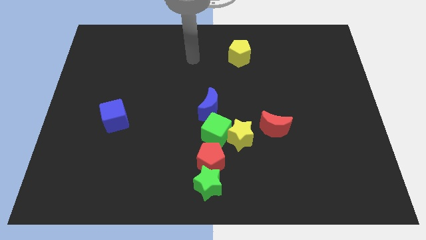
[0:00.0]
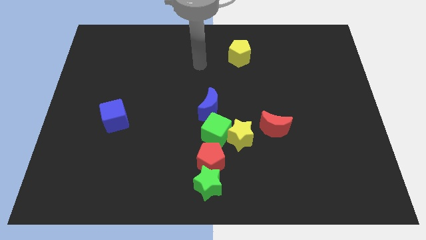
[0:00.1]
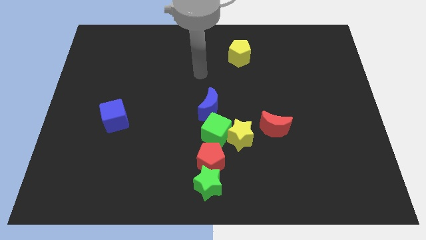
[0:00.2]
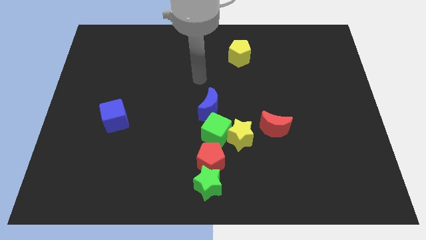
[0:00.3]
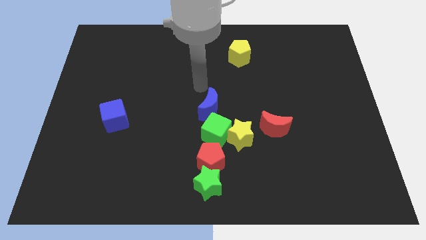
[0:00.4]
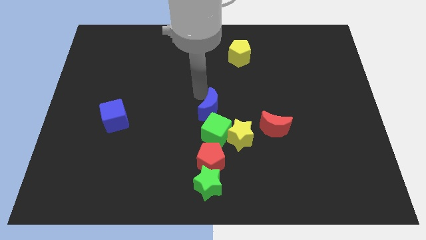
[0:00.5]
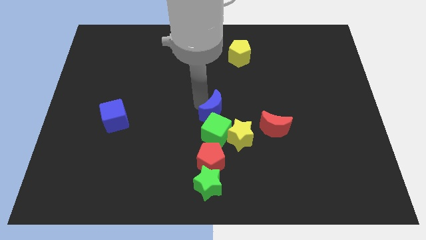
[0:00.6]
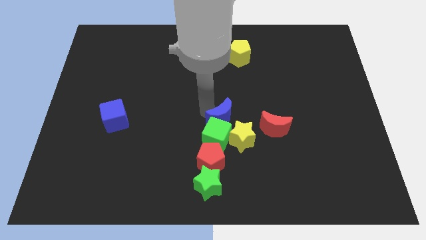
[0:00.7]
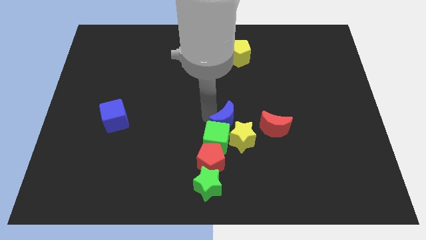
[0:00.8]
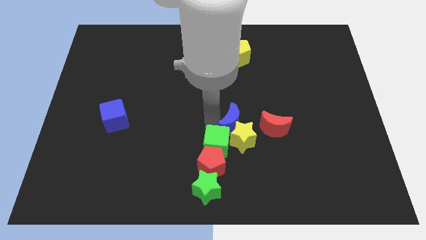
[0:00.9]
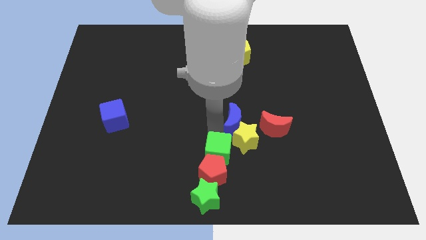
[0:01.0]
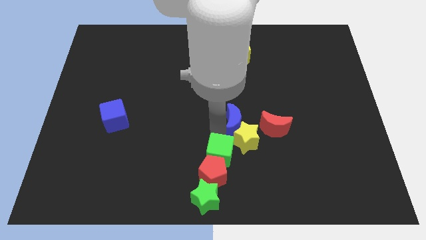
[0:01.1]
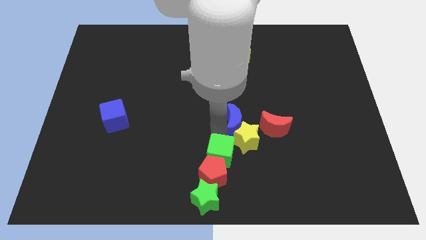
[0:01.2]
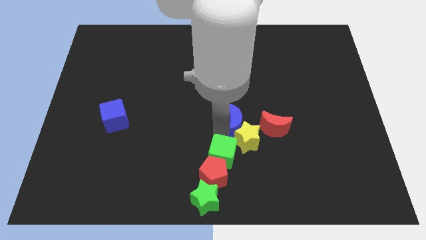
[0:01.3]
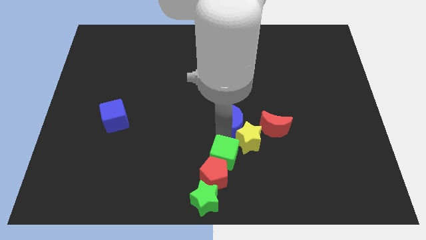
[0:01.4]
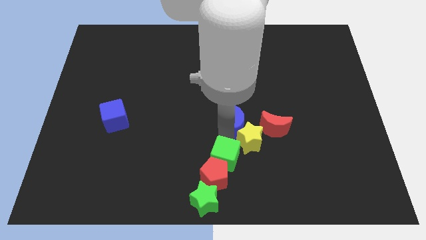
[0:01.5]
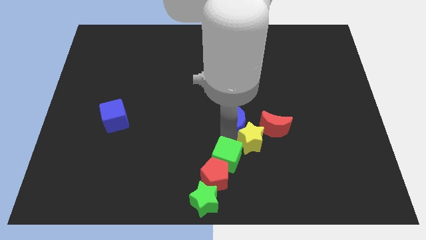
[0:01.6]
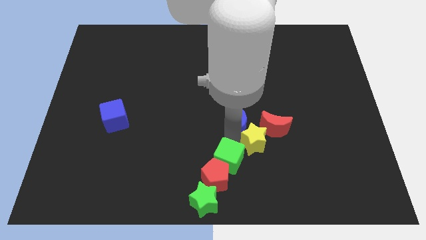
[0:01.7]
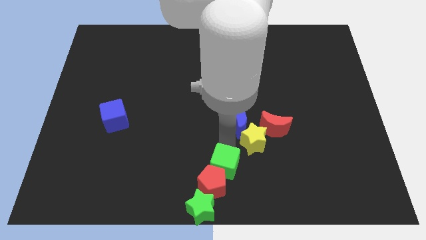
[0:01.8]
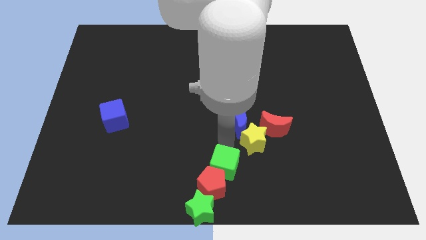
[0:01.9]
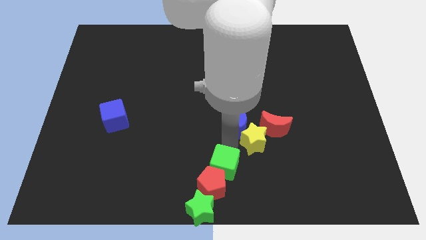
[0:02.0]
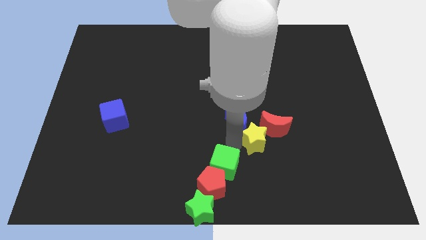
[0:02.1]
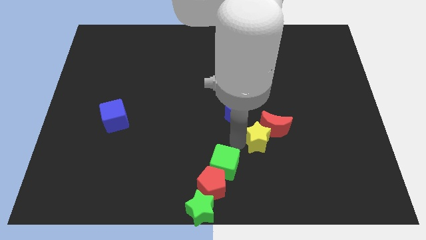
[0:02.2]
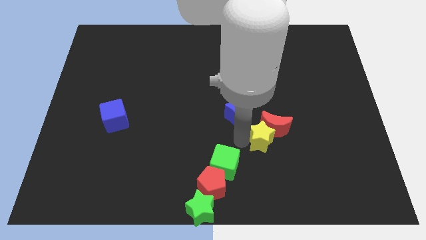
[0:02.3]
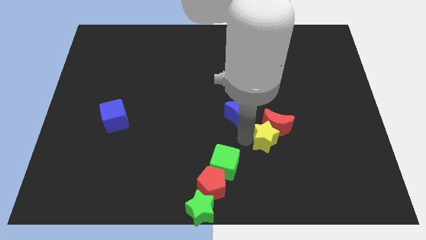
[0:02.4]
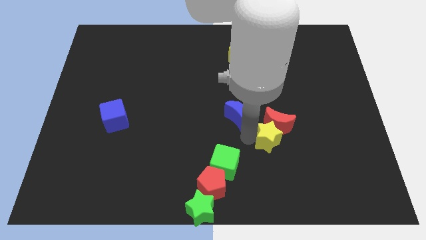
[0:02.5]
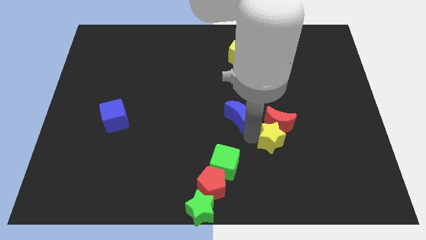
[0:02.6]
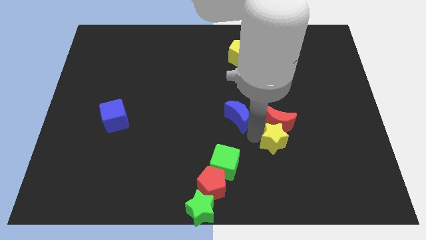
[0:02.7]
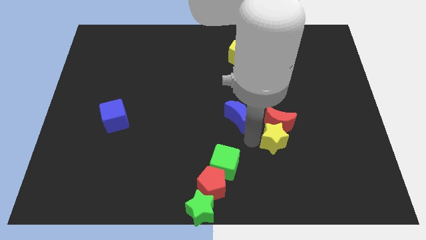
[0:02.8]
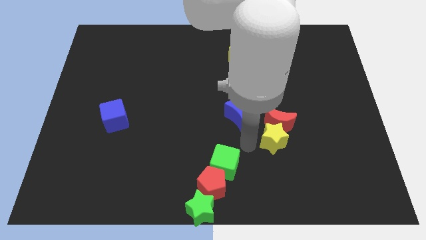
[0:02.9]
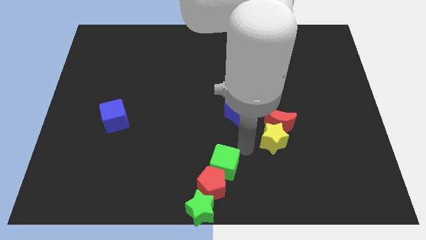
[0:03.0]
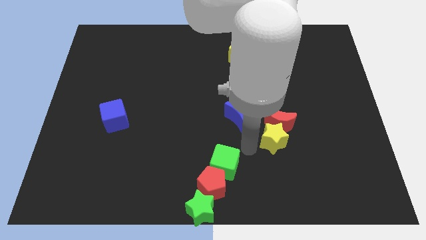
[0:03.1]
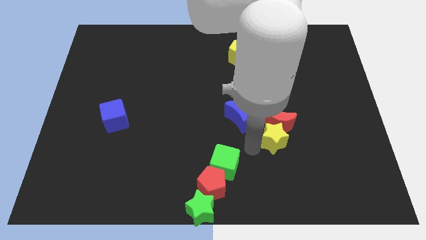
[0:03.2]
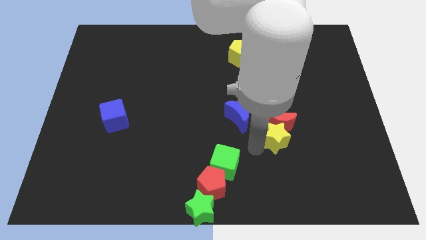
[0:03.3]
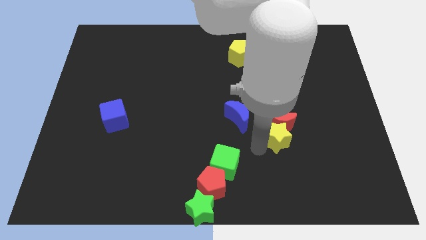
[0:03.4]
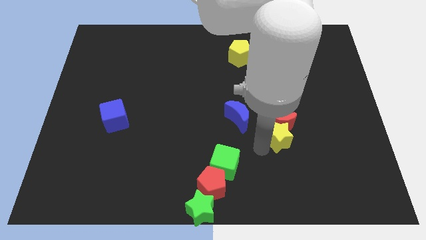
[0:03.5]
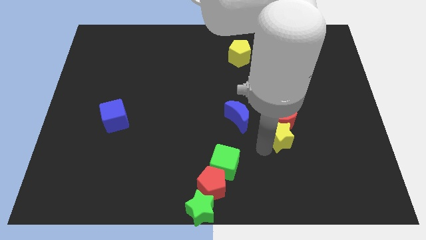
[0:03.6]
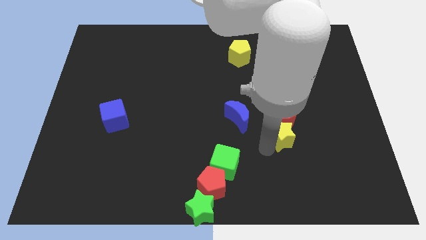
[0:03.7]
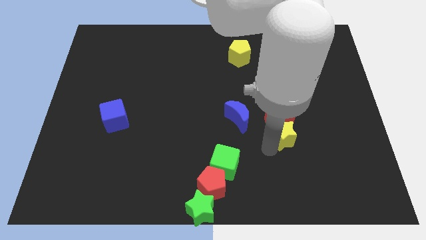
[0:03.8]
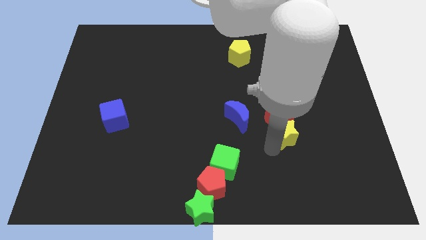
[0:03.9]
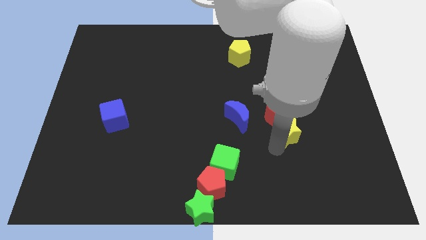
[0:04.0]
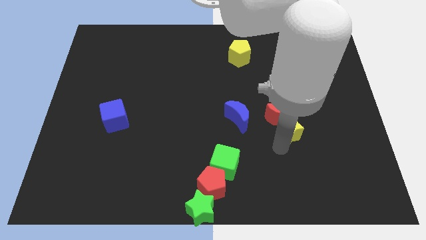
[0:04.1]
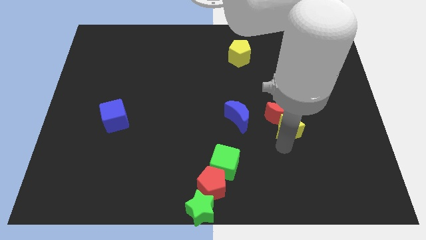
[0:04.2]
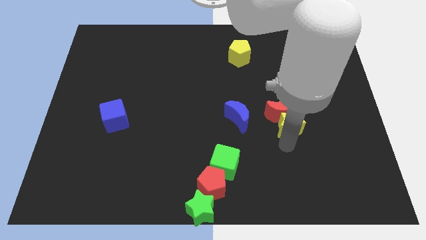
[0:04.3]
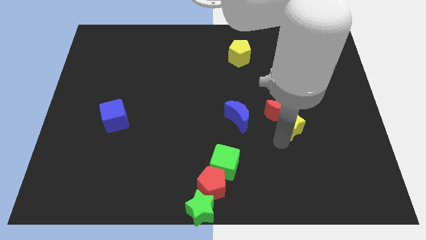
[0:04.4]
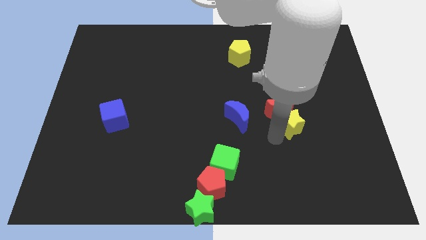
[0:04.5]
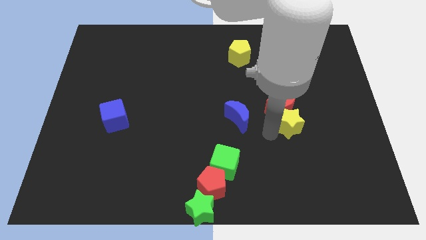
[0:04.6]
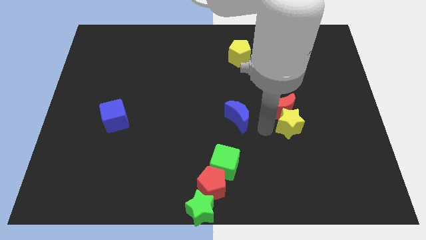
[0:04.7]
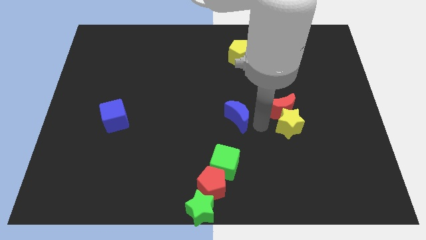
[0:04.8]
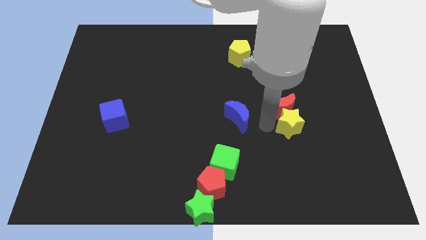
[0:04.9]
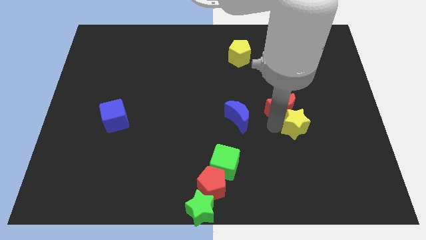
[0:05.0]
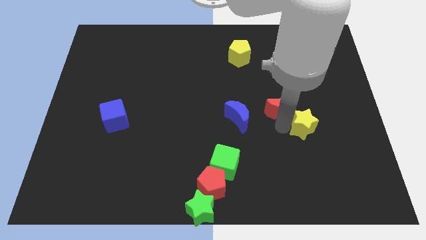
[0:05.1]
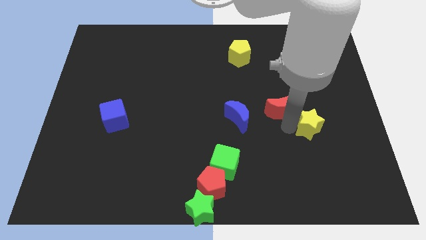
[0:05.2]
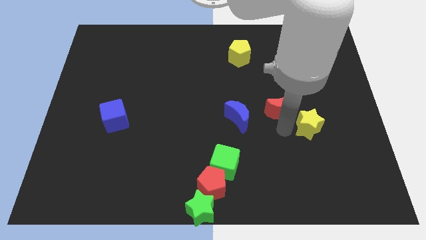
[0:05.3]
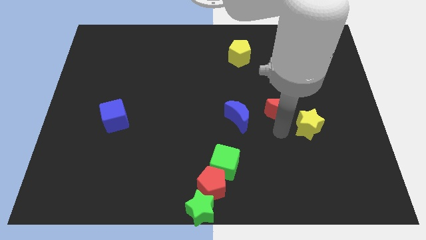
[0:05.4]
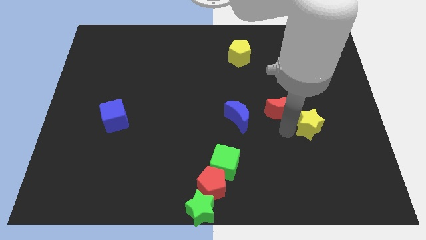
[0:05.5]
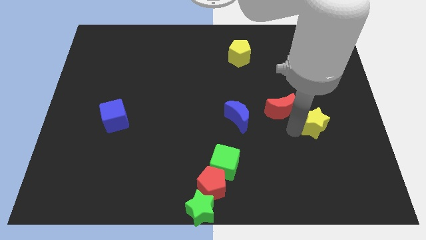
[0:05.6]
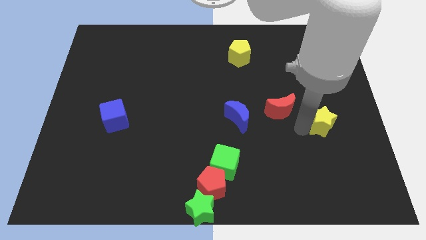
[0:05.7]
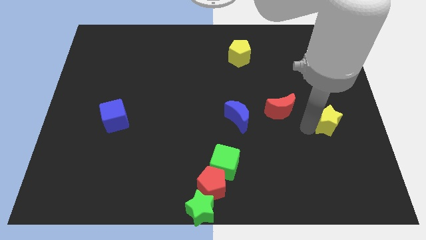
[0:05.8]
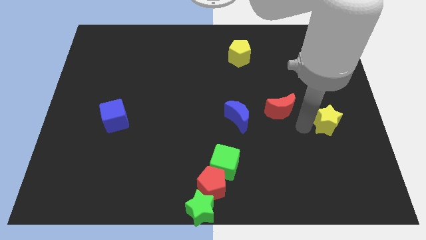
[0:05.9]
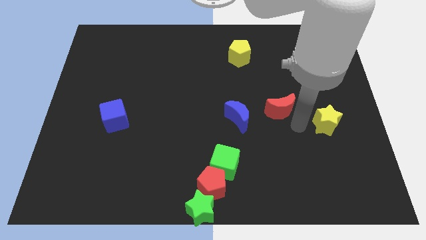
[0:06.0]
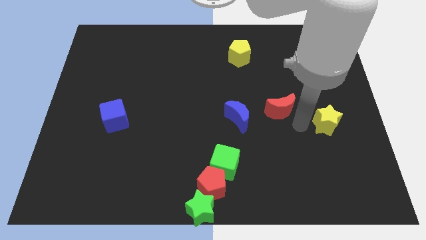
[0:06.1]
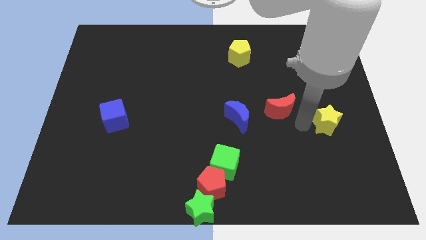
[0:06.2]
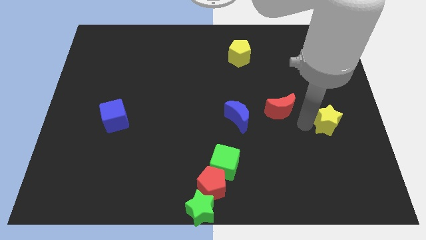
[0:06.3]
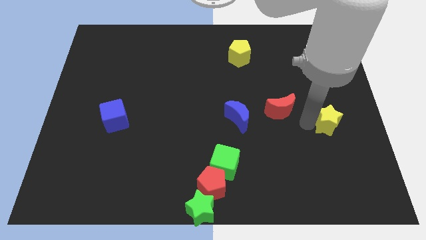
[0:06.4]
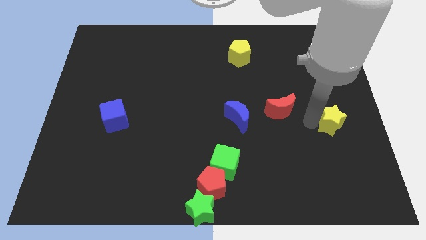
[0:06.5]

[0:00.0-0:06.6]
move the yellow star to the right side of the board

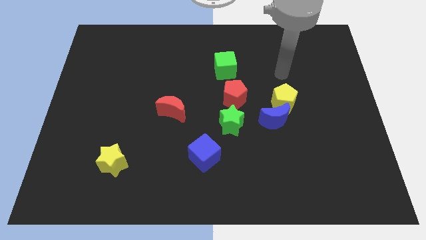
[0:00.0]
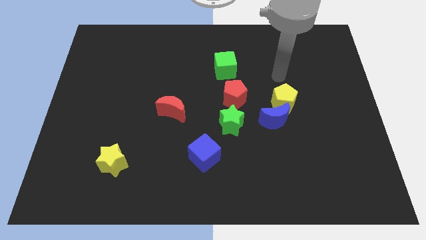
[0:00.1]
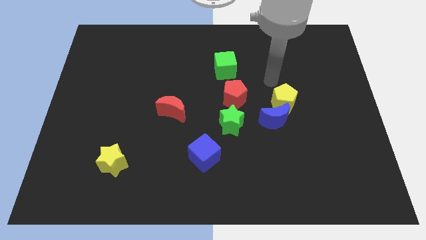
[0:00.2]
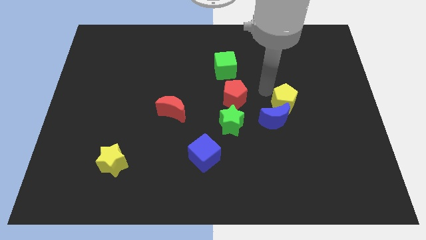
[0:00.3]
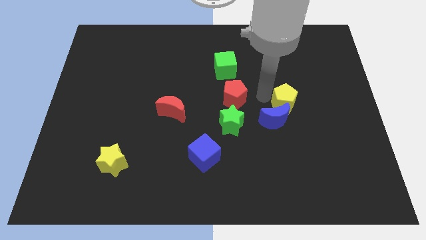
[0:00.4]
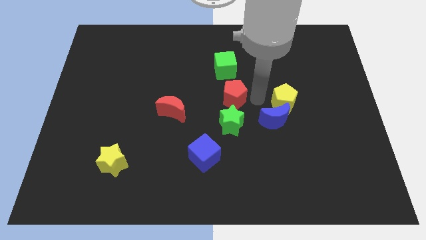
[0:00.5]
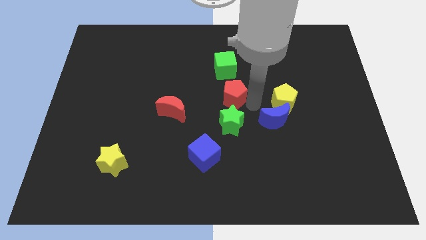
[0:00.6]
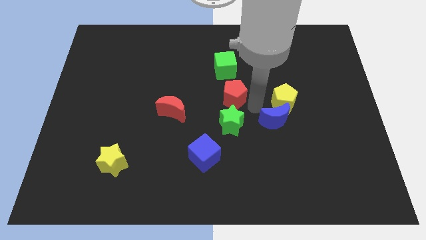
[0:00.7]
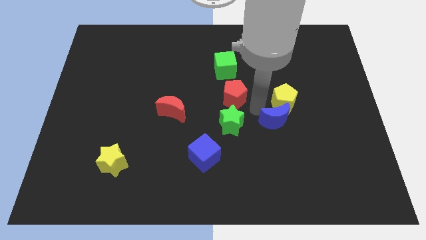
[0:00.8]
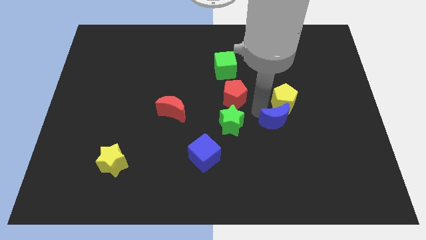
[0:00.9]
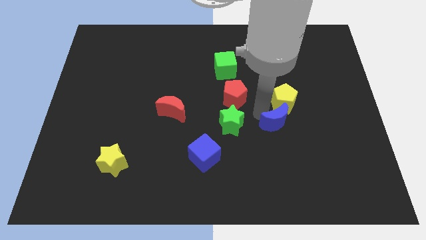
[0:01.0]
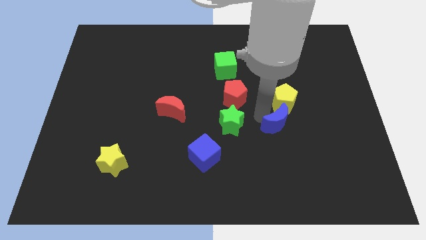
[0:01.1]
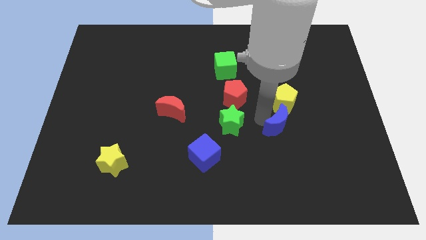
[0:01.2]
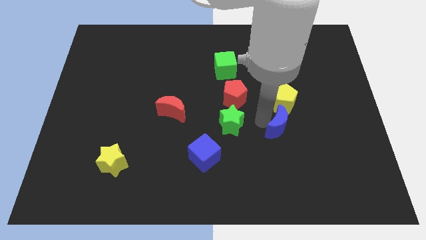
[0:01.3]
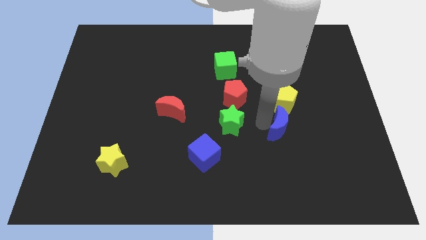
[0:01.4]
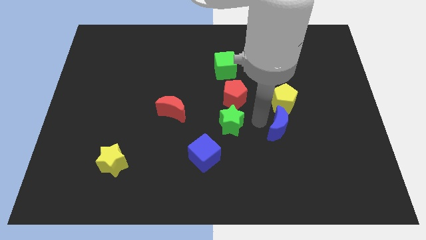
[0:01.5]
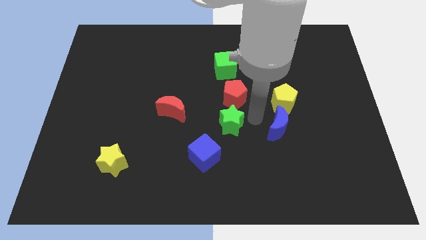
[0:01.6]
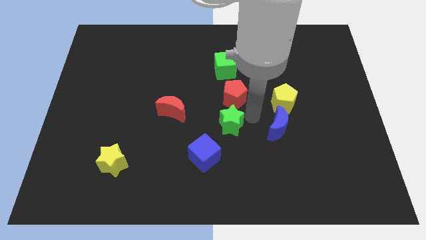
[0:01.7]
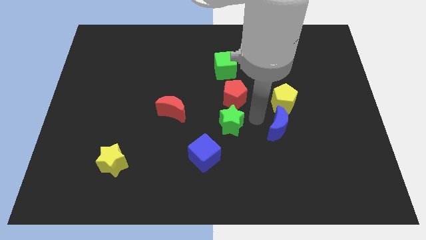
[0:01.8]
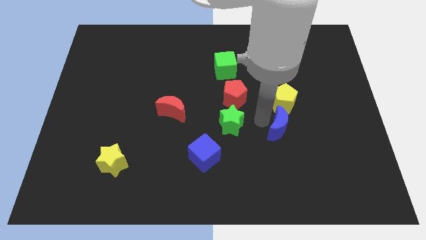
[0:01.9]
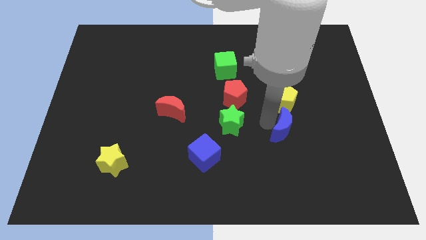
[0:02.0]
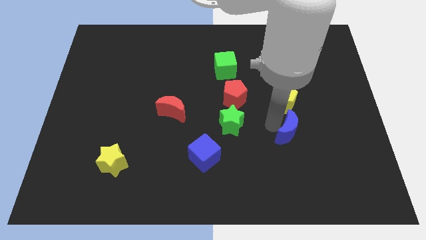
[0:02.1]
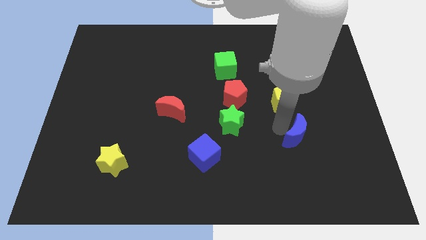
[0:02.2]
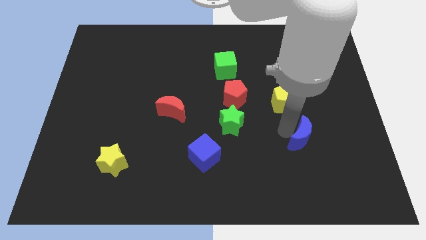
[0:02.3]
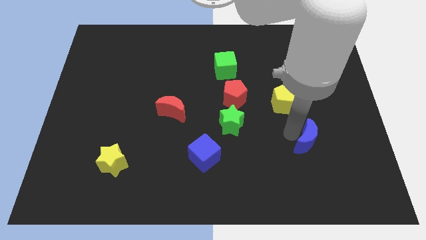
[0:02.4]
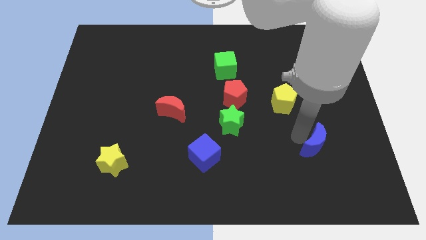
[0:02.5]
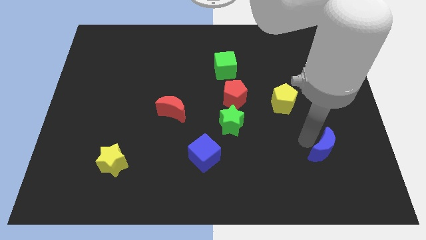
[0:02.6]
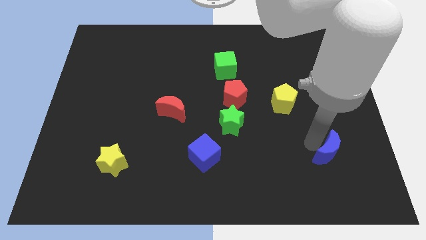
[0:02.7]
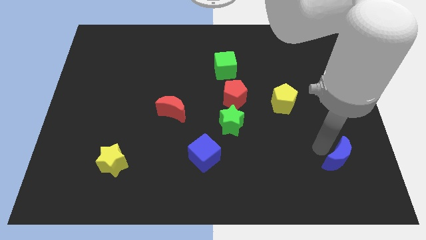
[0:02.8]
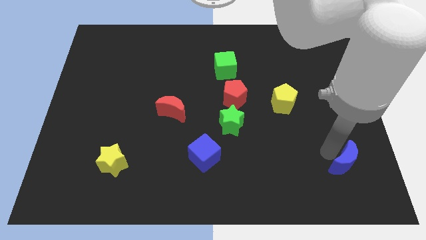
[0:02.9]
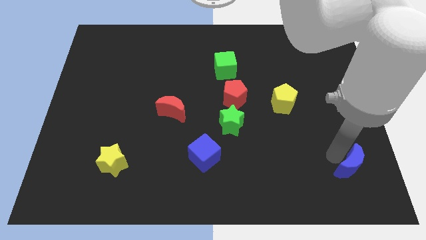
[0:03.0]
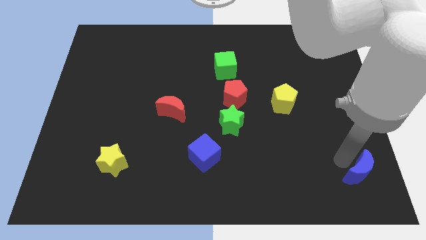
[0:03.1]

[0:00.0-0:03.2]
slide the blue moon to the bottom right
